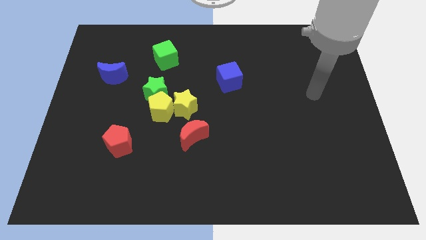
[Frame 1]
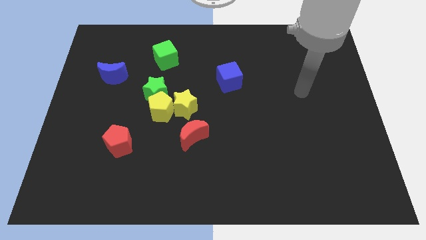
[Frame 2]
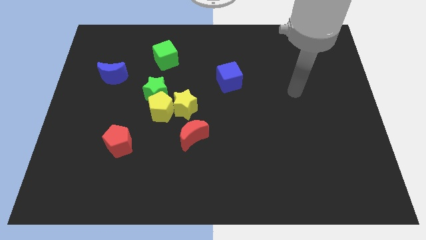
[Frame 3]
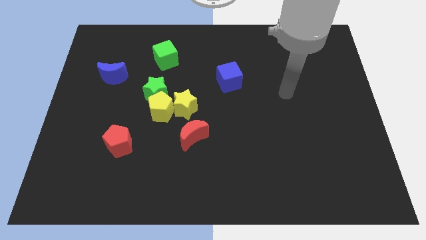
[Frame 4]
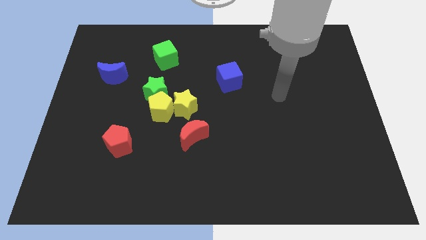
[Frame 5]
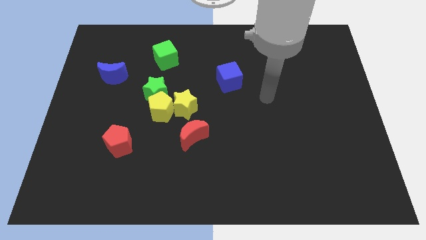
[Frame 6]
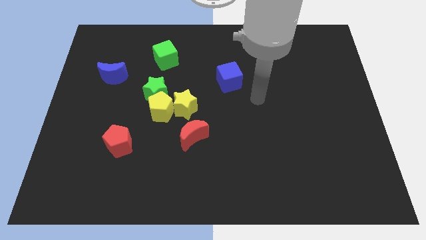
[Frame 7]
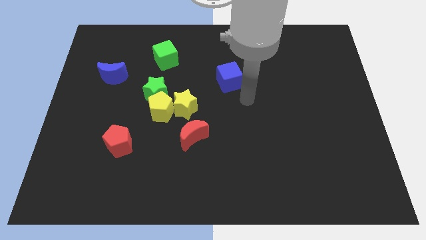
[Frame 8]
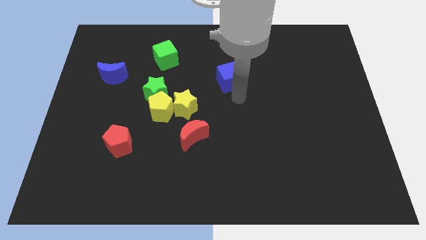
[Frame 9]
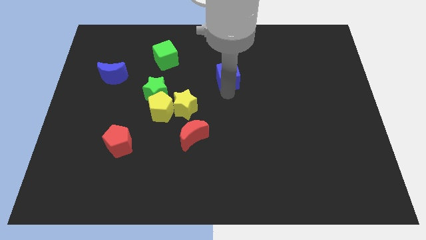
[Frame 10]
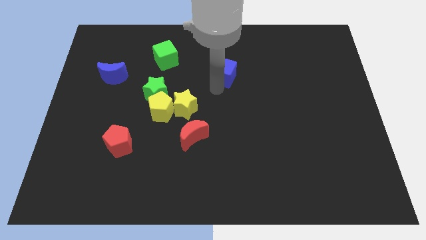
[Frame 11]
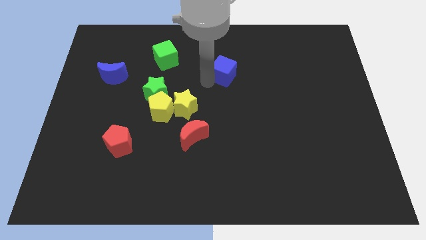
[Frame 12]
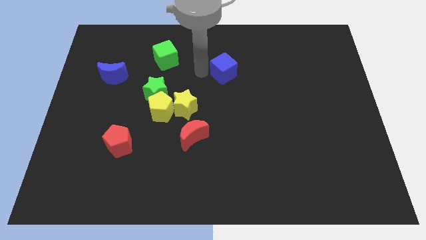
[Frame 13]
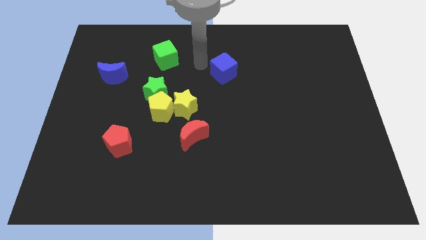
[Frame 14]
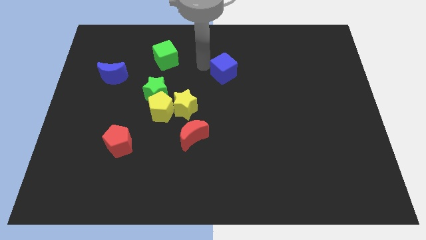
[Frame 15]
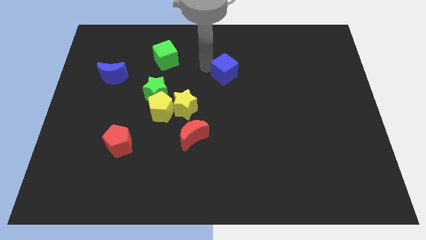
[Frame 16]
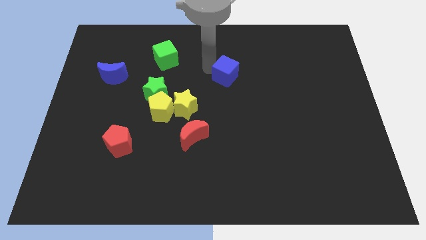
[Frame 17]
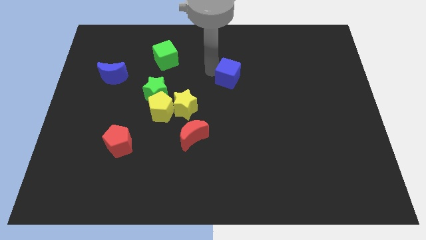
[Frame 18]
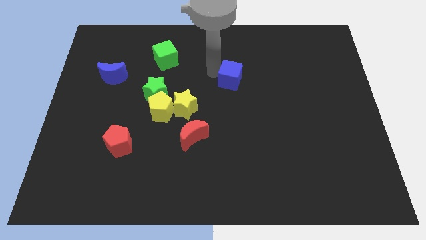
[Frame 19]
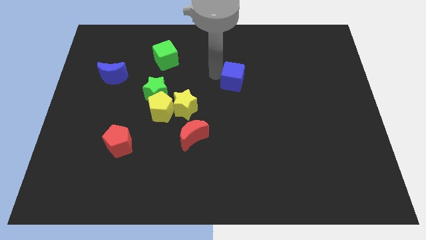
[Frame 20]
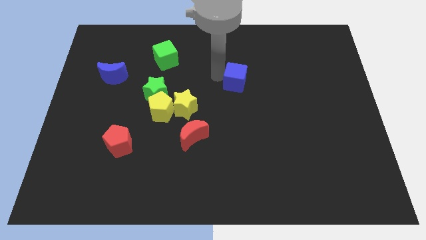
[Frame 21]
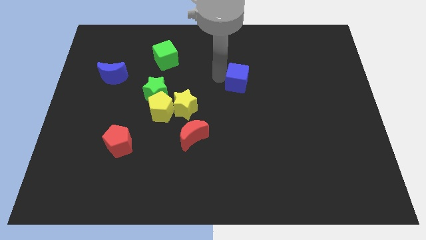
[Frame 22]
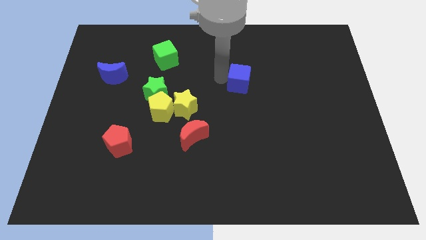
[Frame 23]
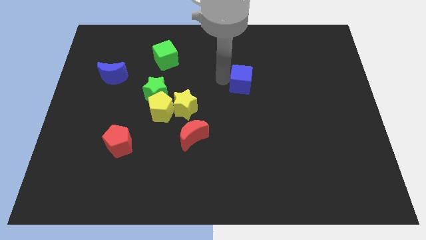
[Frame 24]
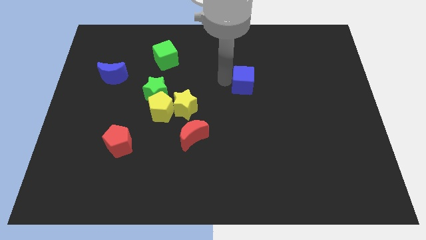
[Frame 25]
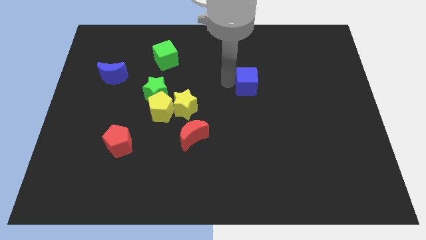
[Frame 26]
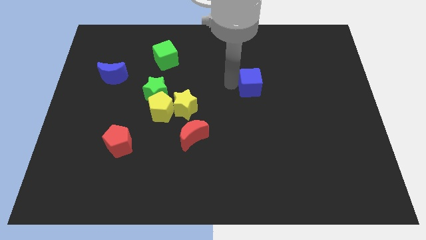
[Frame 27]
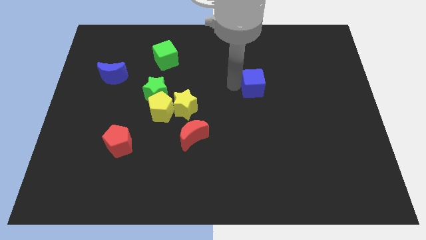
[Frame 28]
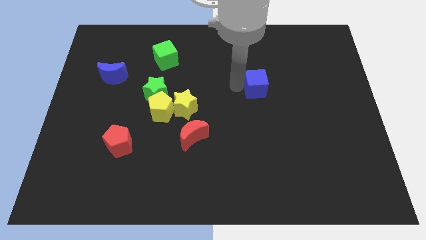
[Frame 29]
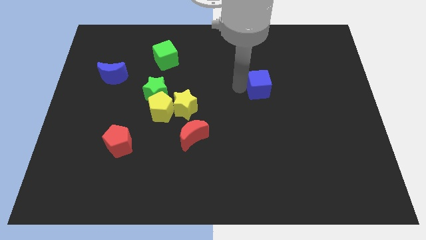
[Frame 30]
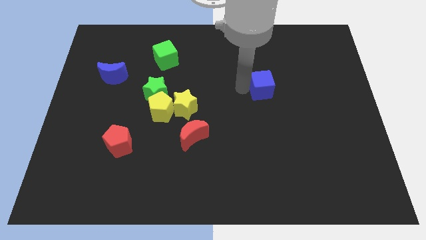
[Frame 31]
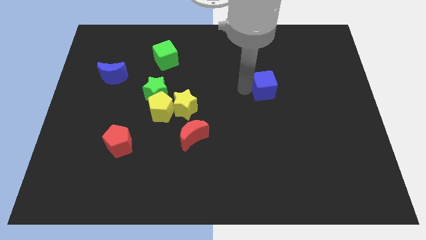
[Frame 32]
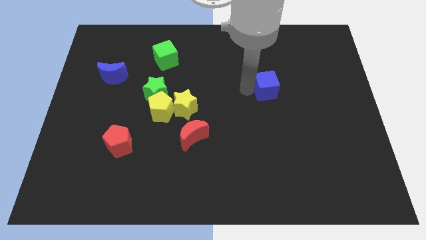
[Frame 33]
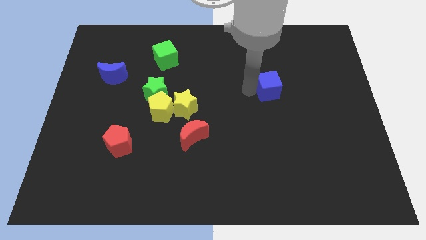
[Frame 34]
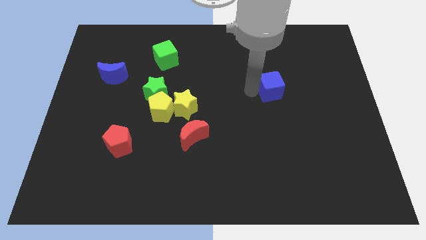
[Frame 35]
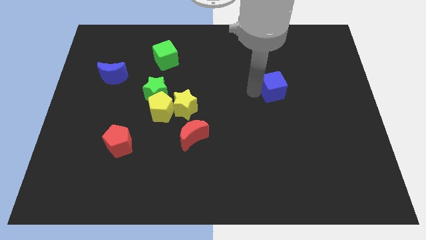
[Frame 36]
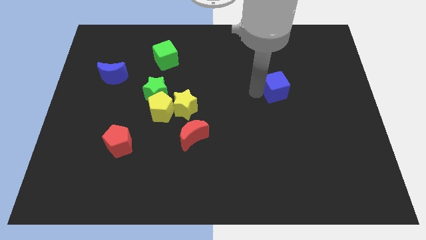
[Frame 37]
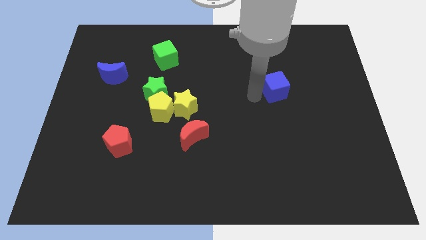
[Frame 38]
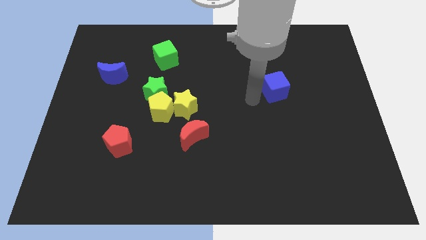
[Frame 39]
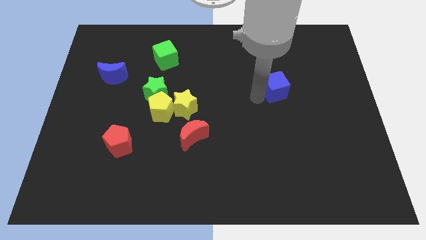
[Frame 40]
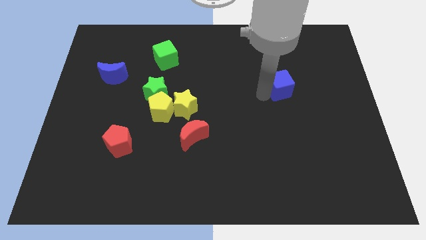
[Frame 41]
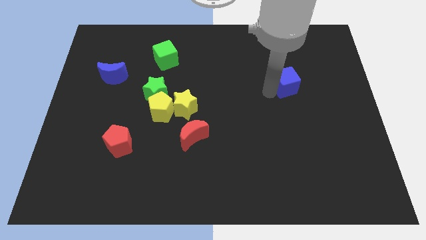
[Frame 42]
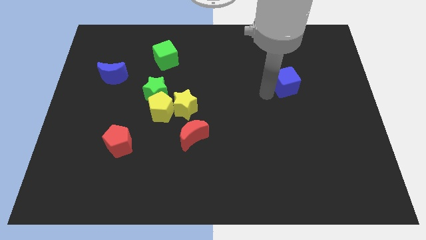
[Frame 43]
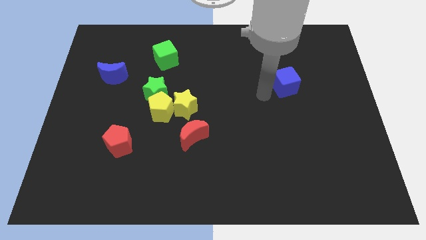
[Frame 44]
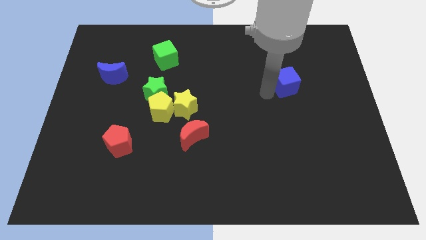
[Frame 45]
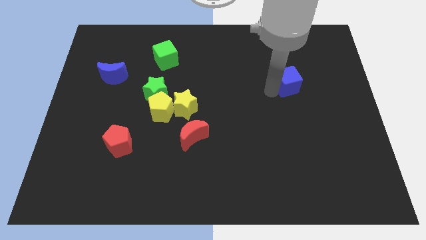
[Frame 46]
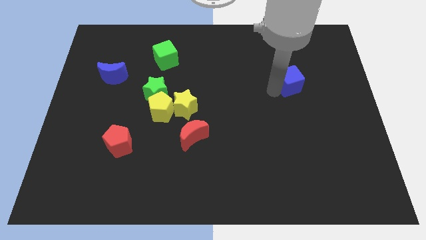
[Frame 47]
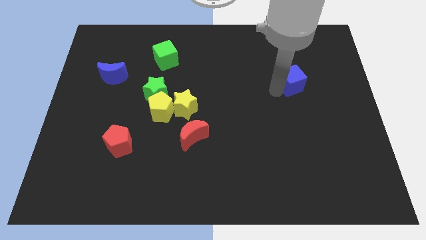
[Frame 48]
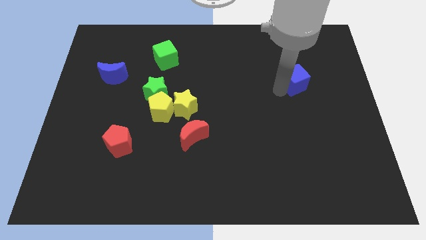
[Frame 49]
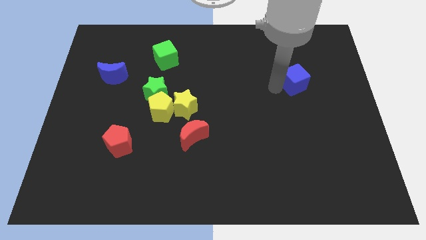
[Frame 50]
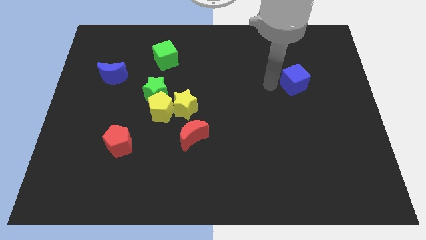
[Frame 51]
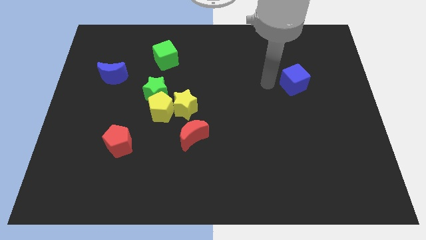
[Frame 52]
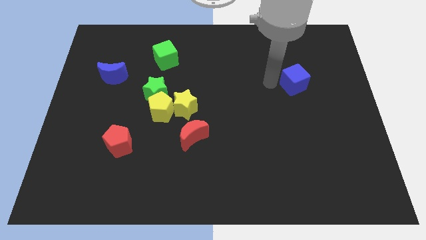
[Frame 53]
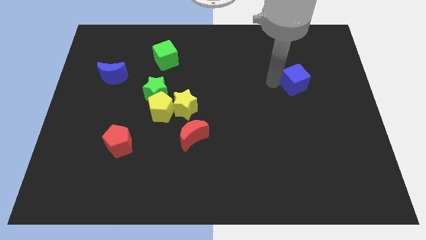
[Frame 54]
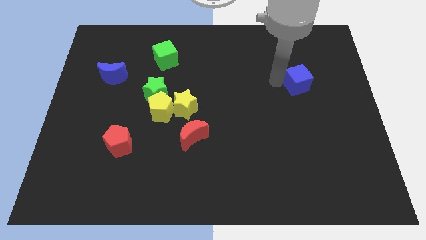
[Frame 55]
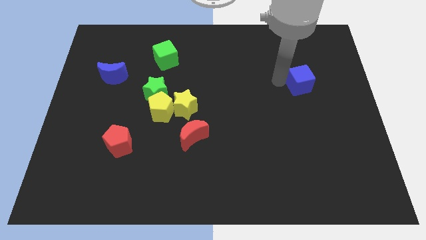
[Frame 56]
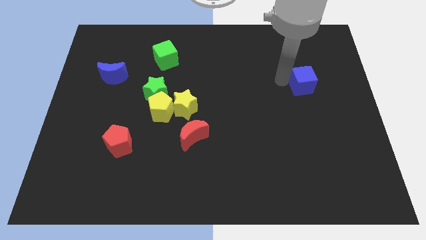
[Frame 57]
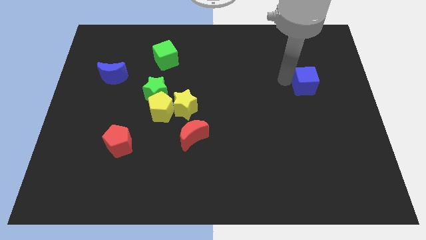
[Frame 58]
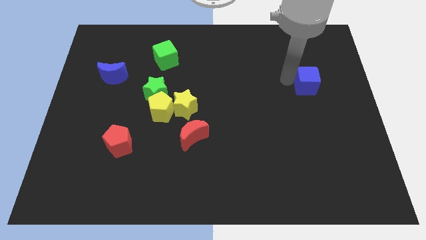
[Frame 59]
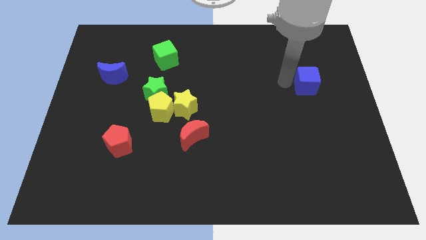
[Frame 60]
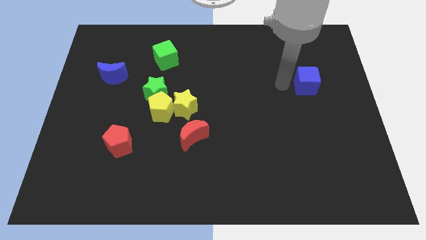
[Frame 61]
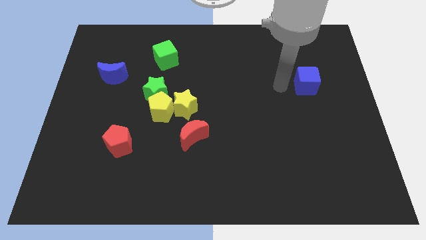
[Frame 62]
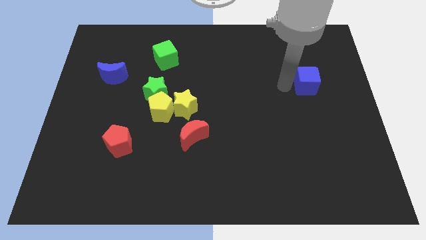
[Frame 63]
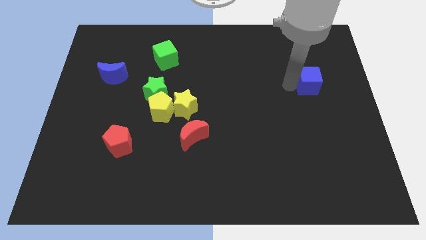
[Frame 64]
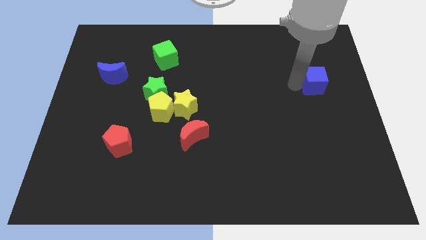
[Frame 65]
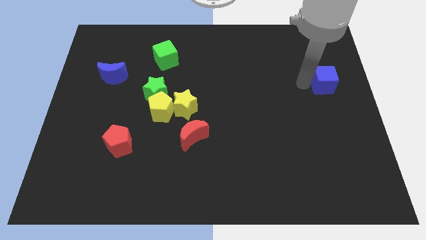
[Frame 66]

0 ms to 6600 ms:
move the blue cube to the right side of the board
